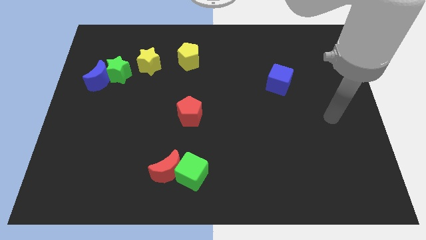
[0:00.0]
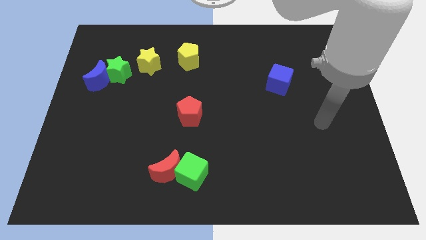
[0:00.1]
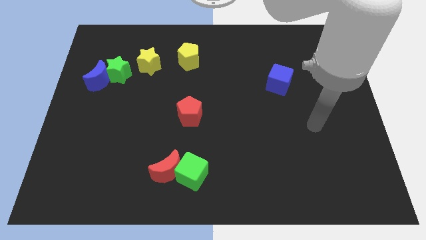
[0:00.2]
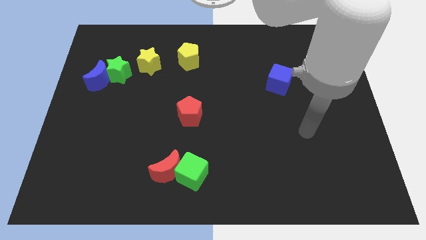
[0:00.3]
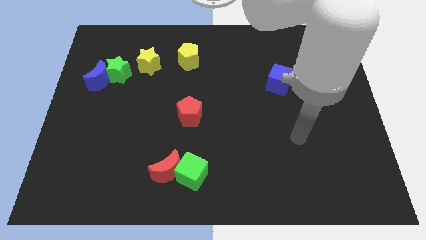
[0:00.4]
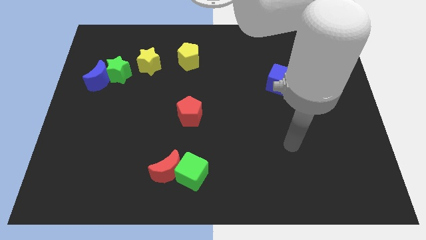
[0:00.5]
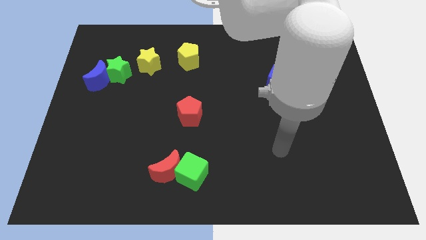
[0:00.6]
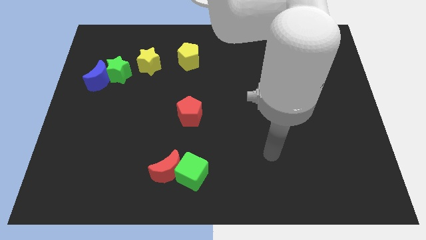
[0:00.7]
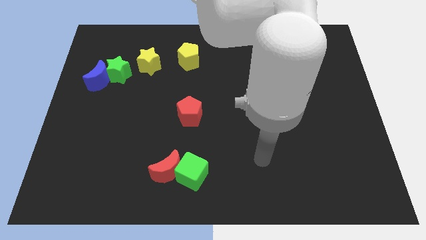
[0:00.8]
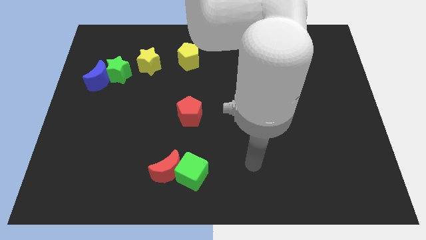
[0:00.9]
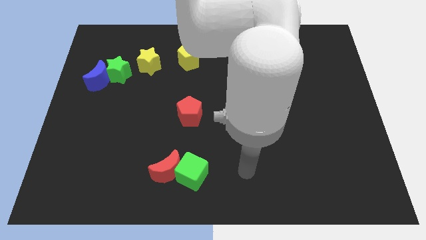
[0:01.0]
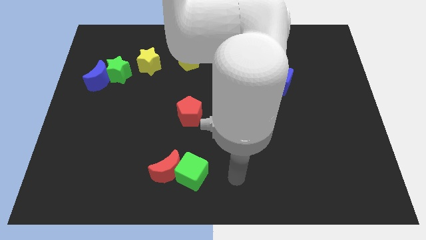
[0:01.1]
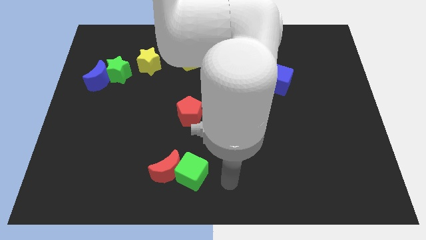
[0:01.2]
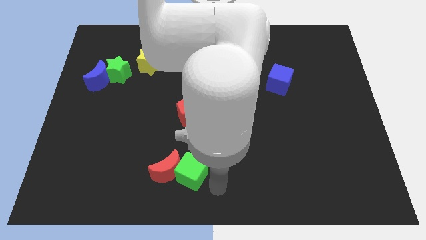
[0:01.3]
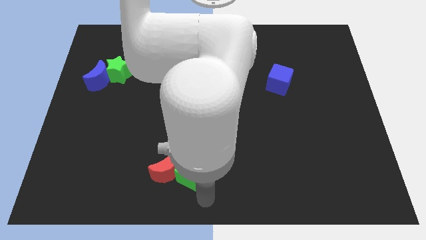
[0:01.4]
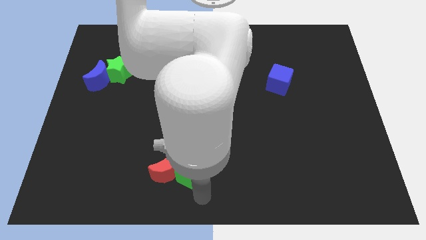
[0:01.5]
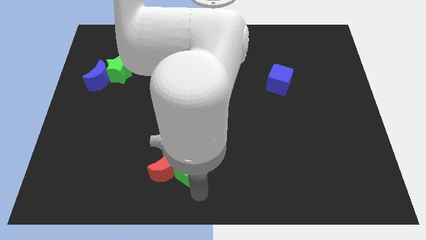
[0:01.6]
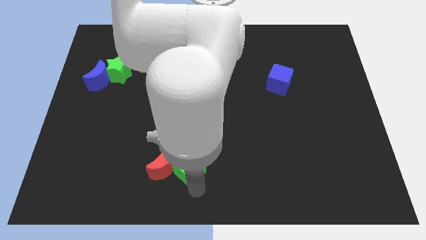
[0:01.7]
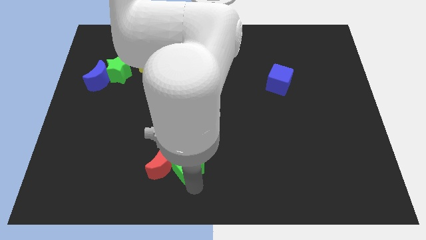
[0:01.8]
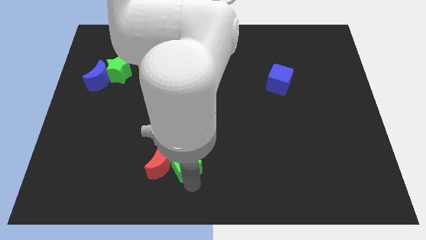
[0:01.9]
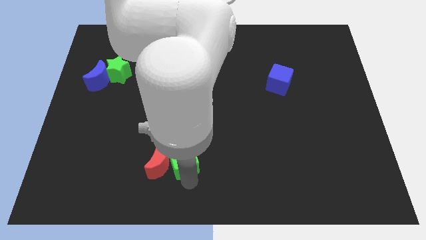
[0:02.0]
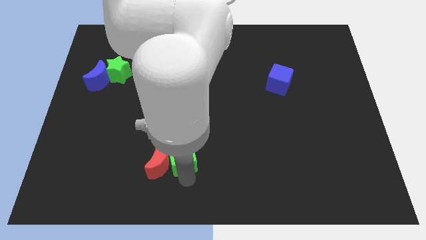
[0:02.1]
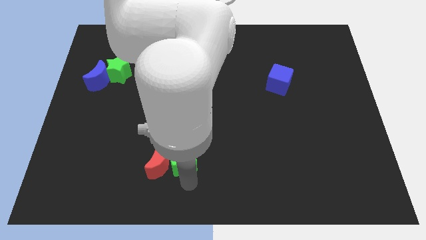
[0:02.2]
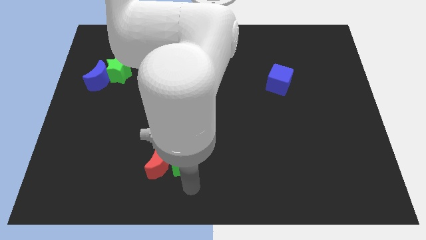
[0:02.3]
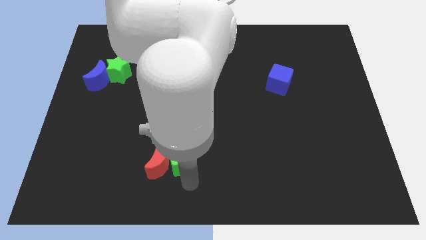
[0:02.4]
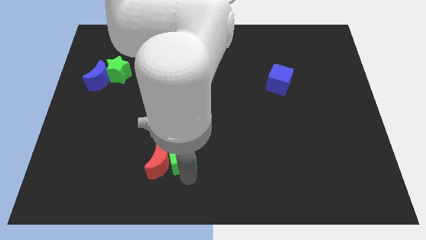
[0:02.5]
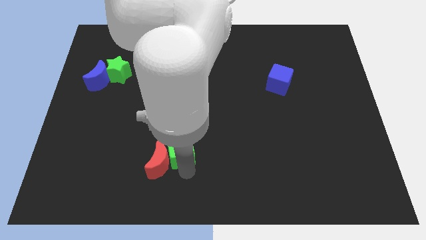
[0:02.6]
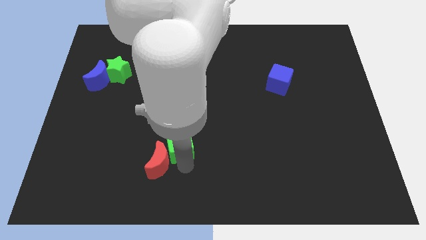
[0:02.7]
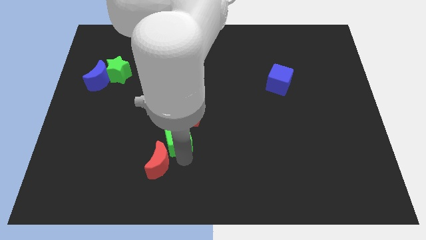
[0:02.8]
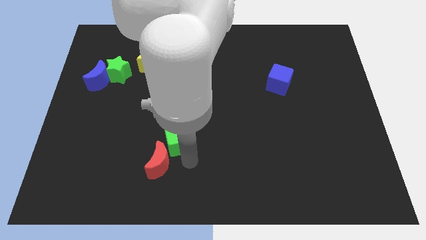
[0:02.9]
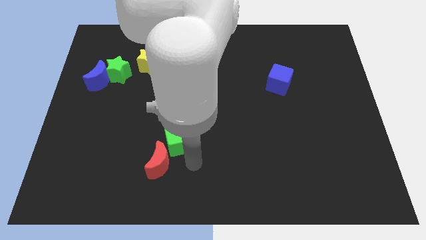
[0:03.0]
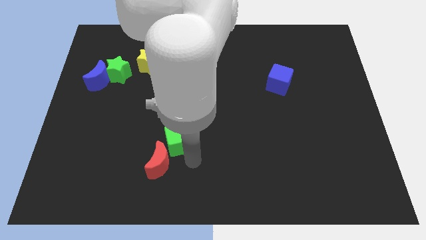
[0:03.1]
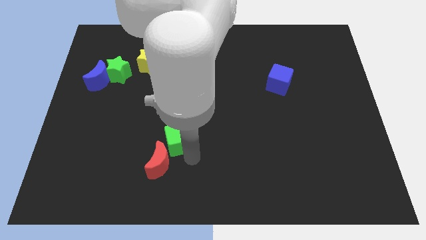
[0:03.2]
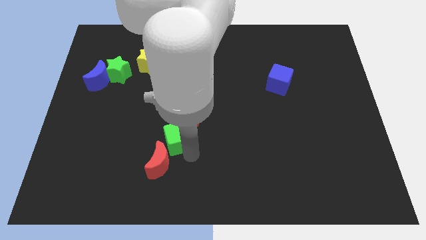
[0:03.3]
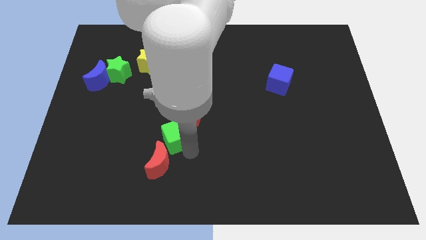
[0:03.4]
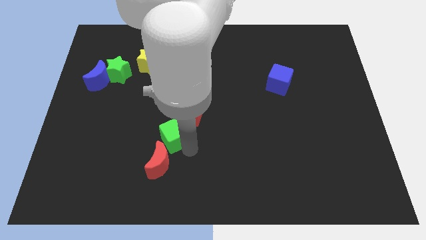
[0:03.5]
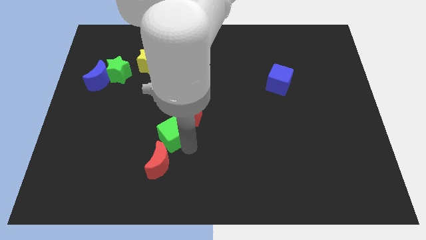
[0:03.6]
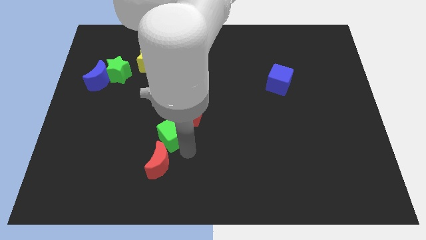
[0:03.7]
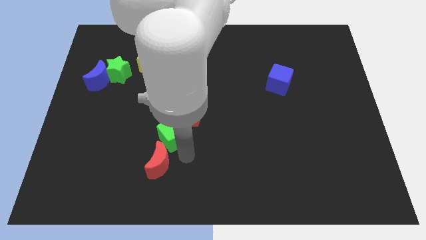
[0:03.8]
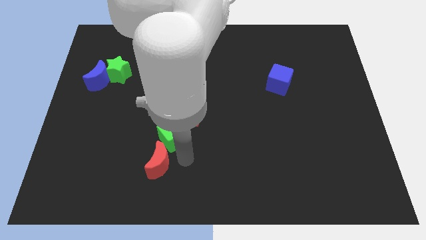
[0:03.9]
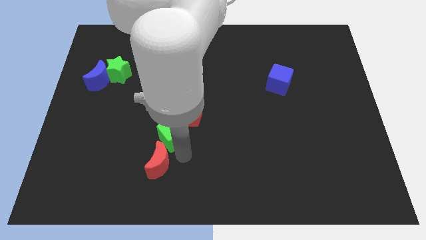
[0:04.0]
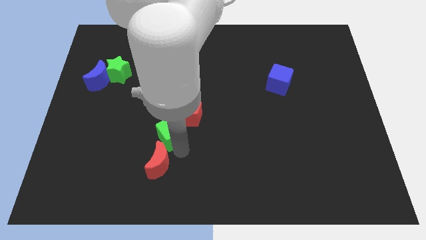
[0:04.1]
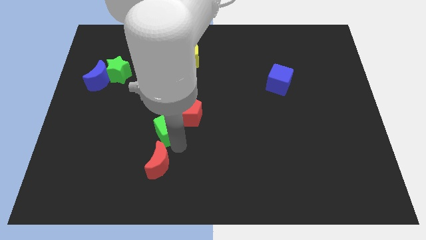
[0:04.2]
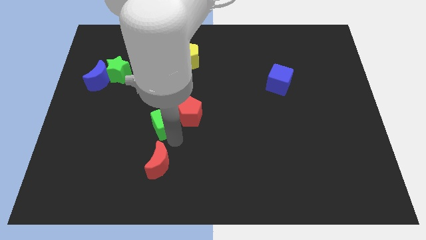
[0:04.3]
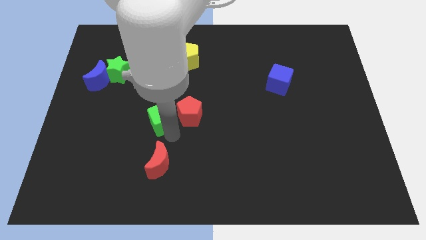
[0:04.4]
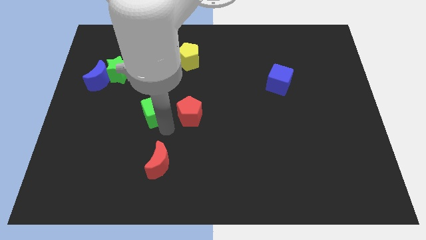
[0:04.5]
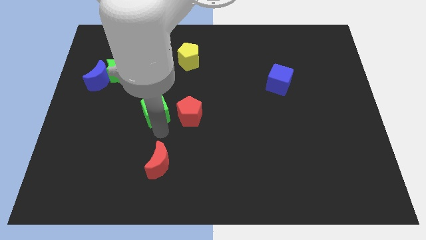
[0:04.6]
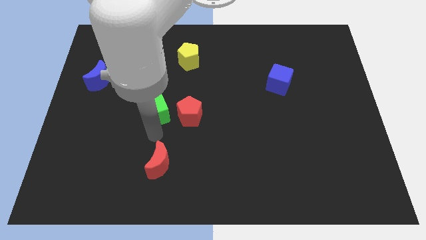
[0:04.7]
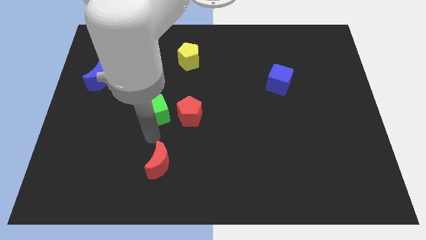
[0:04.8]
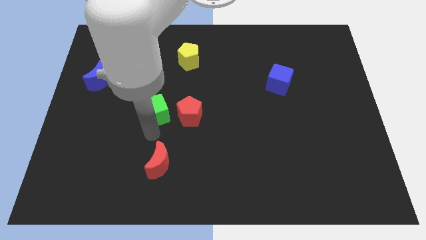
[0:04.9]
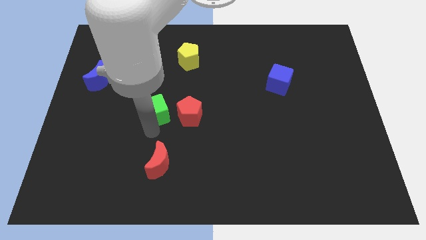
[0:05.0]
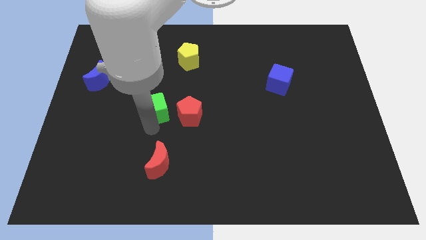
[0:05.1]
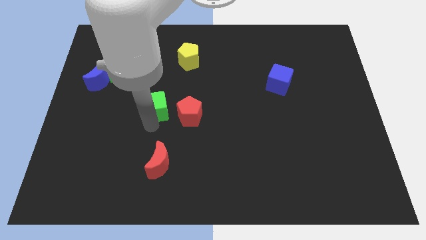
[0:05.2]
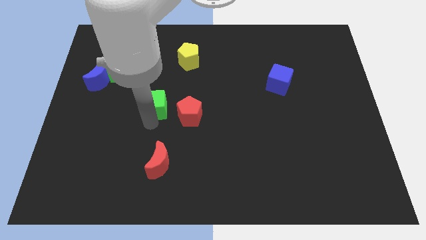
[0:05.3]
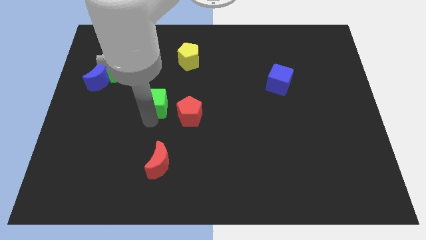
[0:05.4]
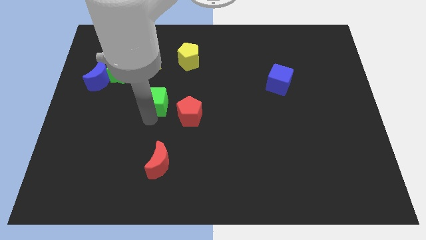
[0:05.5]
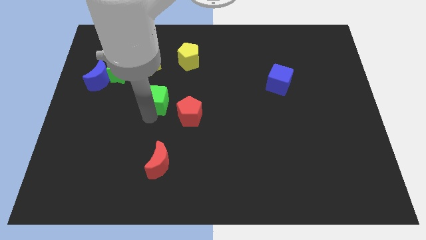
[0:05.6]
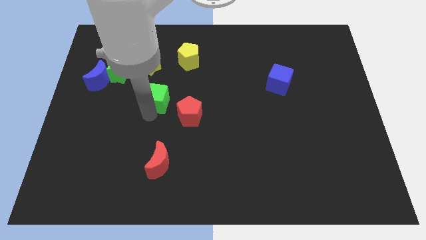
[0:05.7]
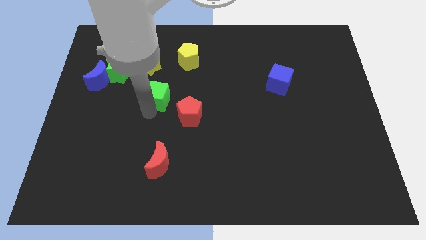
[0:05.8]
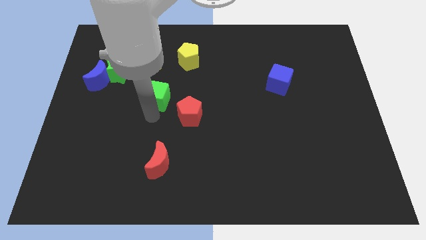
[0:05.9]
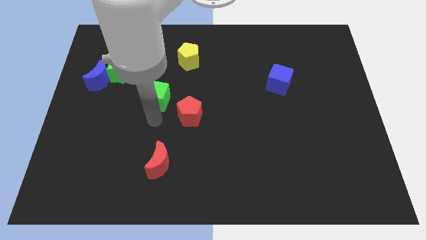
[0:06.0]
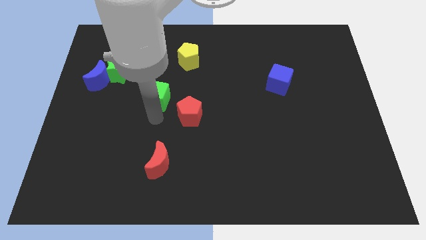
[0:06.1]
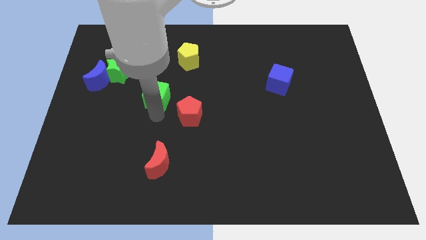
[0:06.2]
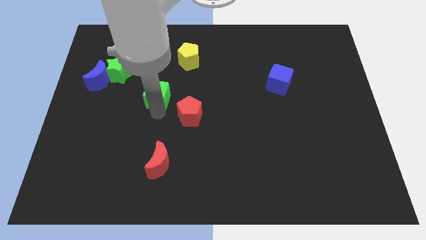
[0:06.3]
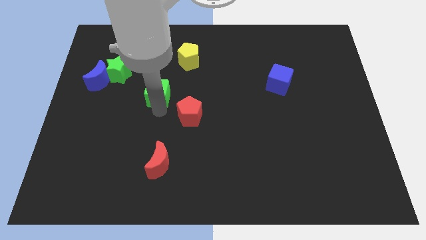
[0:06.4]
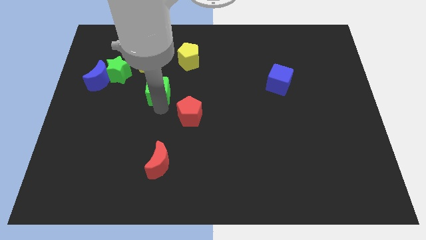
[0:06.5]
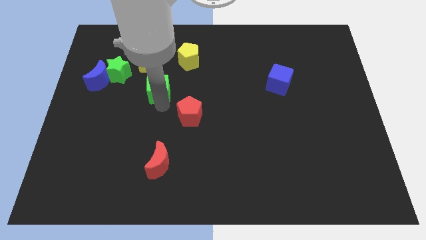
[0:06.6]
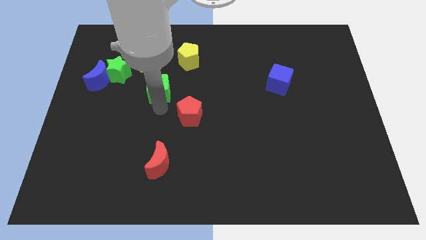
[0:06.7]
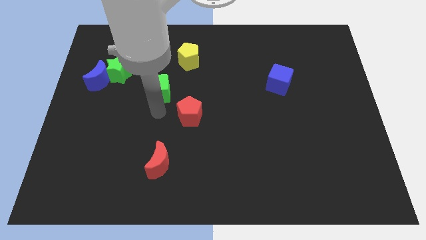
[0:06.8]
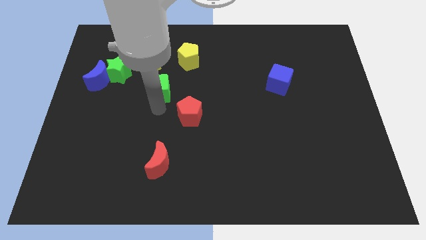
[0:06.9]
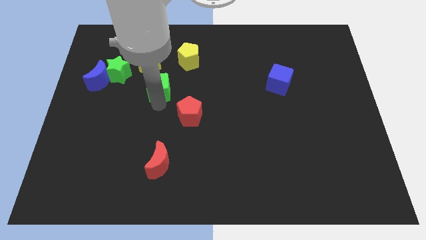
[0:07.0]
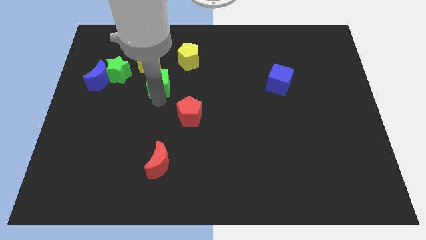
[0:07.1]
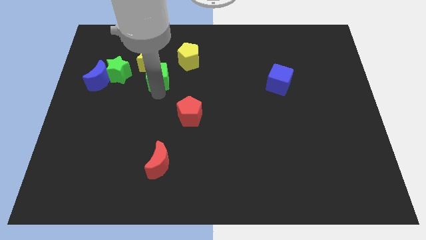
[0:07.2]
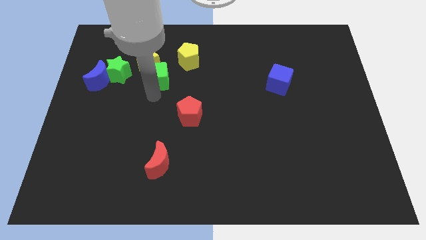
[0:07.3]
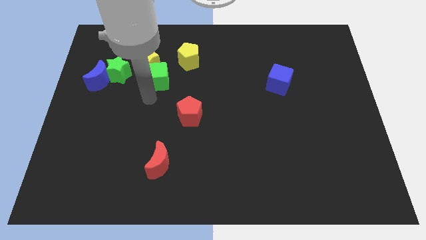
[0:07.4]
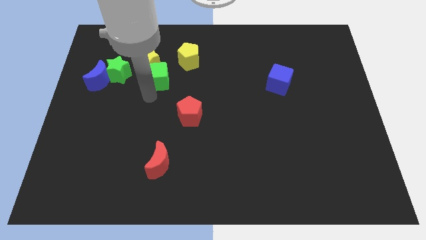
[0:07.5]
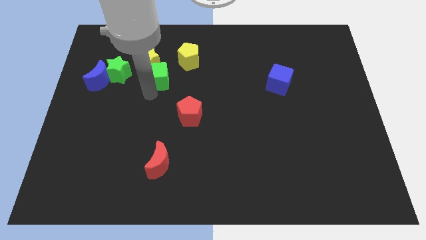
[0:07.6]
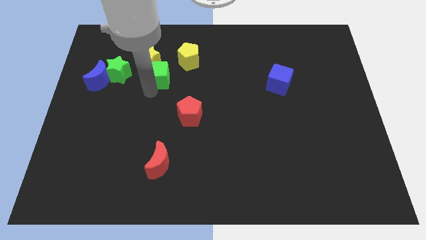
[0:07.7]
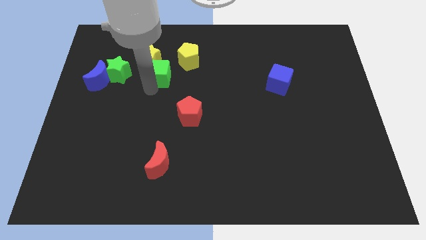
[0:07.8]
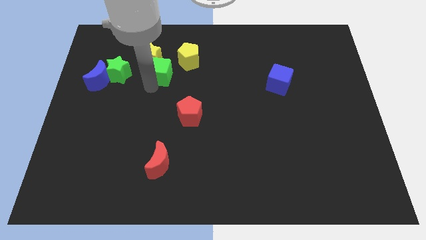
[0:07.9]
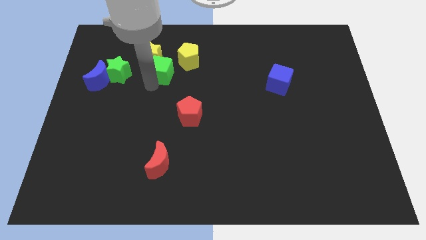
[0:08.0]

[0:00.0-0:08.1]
push the green cube to the left of the yellow pentagon
